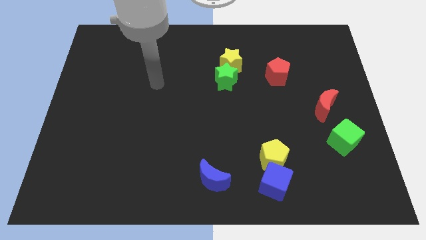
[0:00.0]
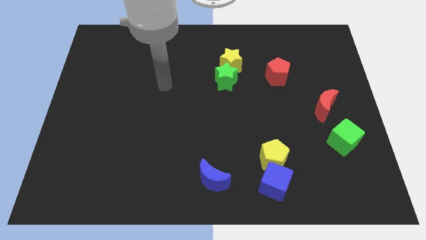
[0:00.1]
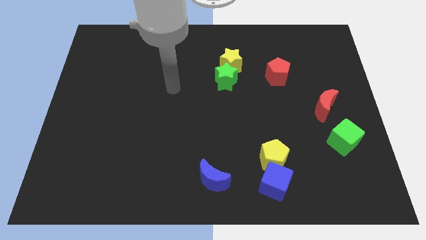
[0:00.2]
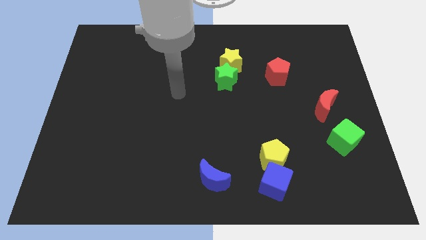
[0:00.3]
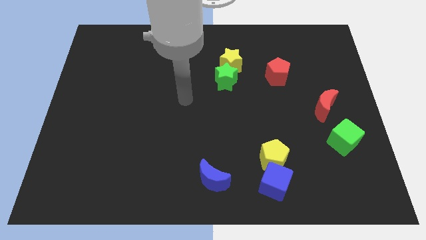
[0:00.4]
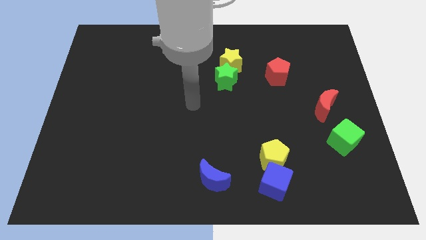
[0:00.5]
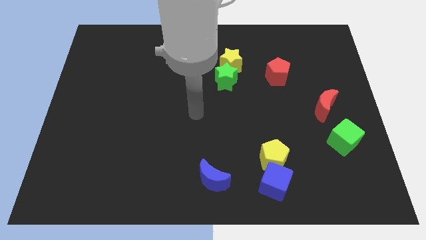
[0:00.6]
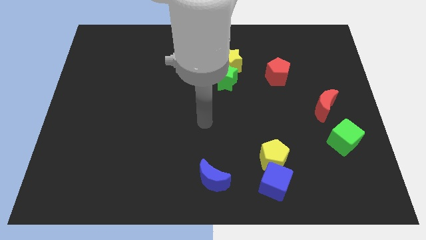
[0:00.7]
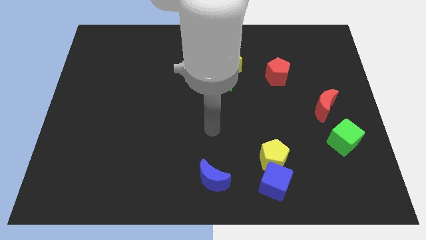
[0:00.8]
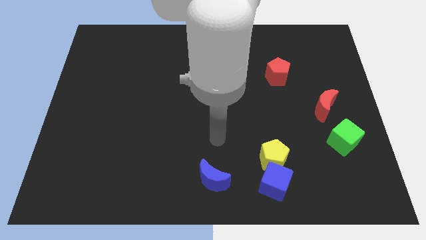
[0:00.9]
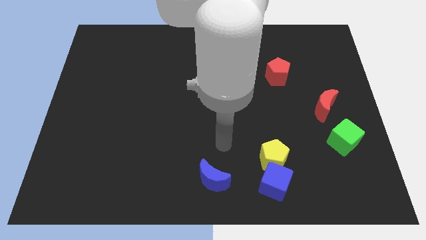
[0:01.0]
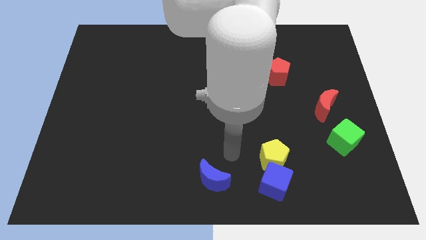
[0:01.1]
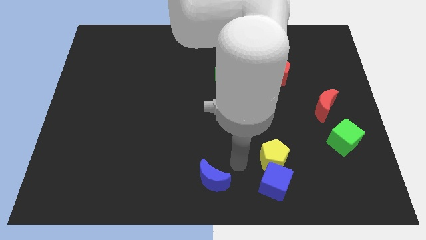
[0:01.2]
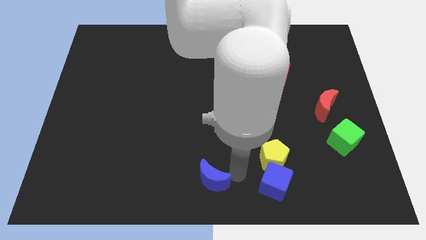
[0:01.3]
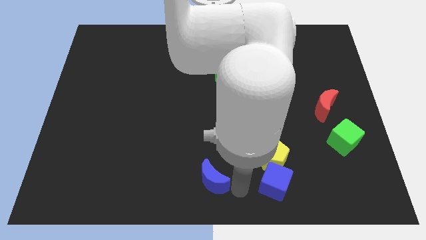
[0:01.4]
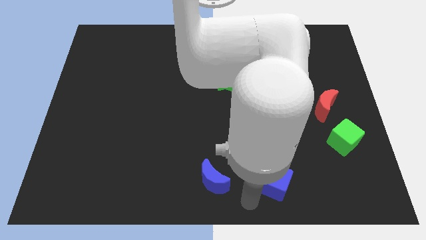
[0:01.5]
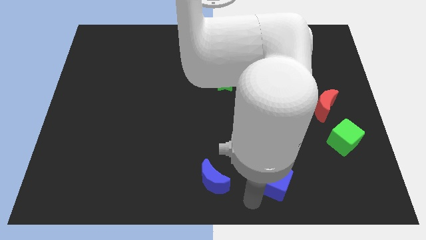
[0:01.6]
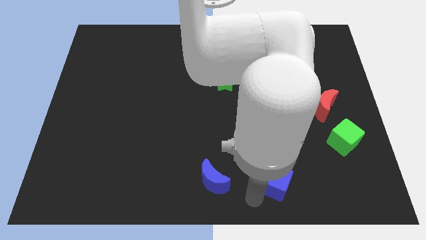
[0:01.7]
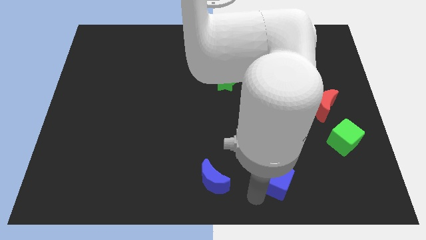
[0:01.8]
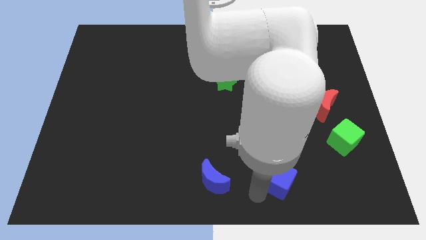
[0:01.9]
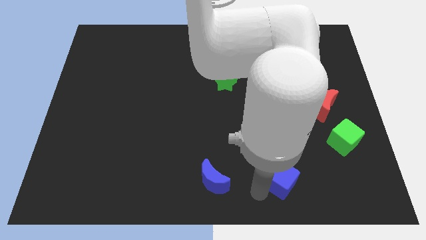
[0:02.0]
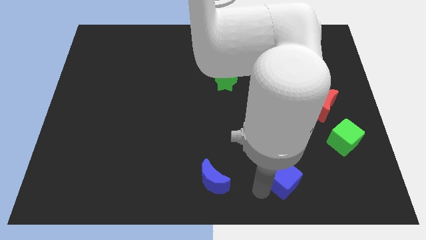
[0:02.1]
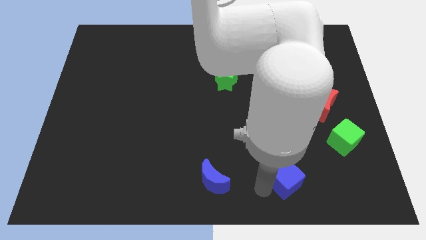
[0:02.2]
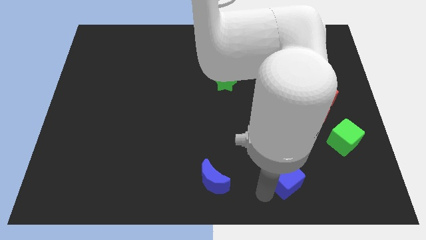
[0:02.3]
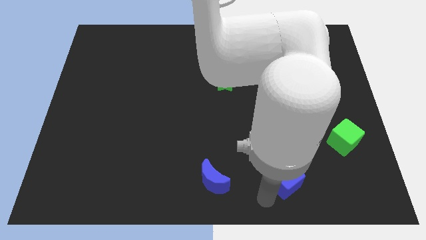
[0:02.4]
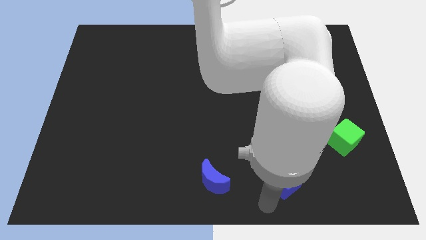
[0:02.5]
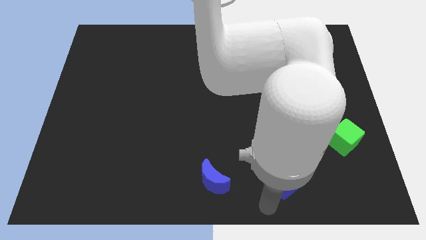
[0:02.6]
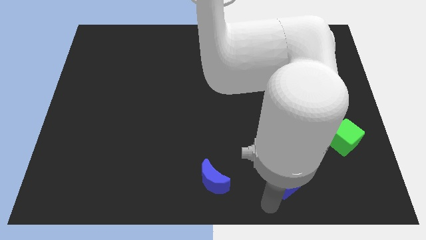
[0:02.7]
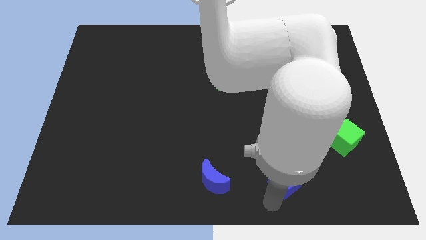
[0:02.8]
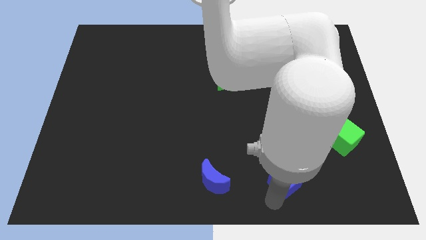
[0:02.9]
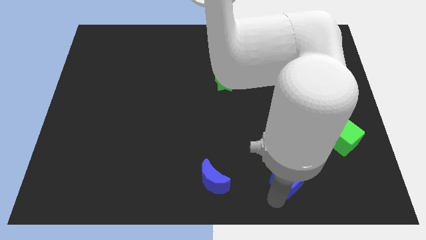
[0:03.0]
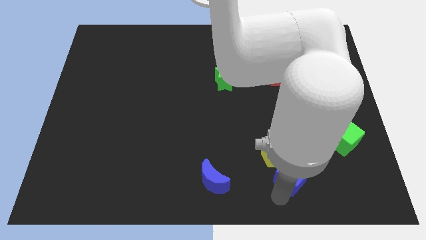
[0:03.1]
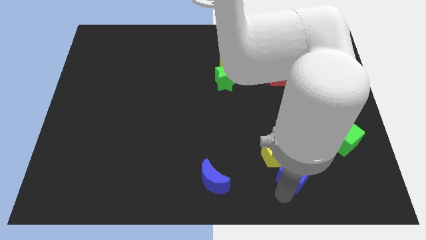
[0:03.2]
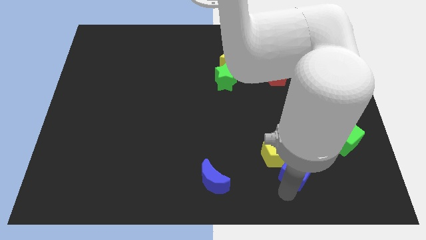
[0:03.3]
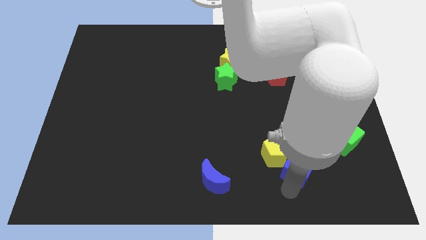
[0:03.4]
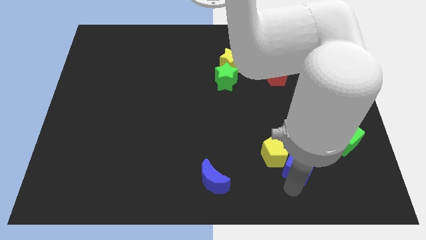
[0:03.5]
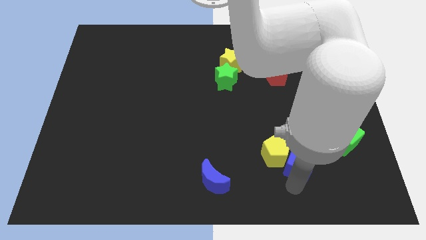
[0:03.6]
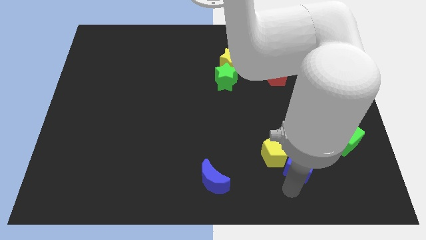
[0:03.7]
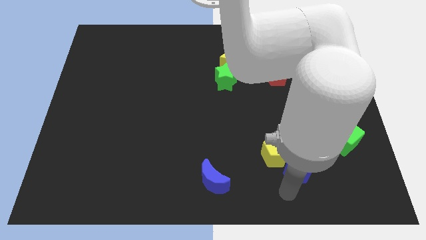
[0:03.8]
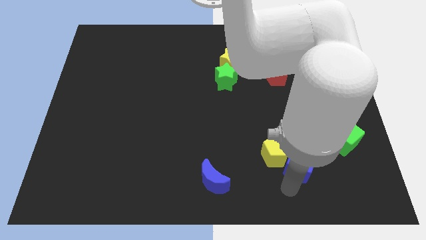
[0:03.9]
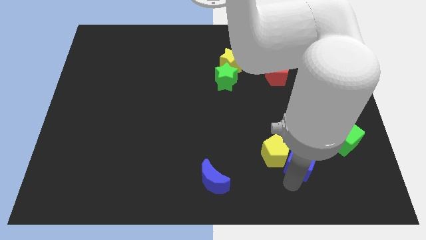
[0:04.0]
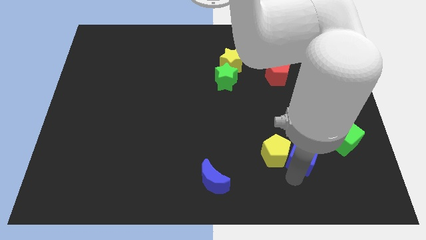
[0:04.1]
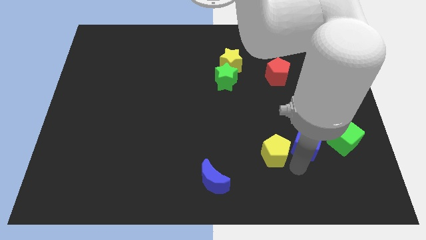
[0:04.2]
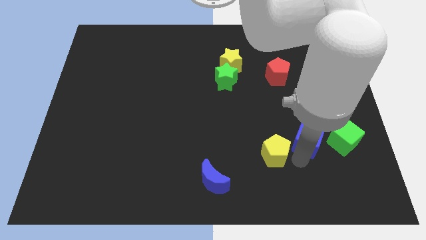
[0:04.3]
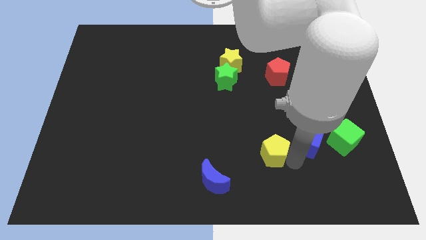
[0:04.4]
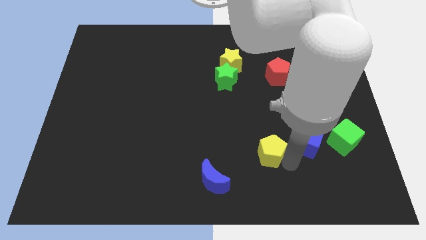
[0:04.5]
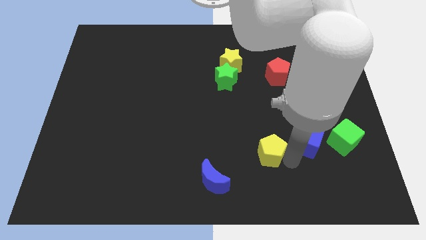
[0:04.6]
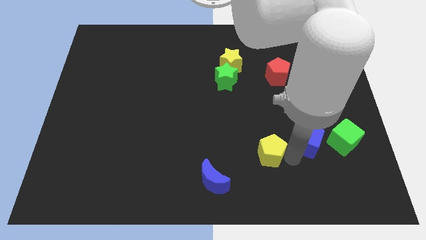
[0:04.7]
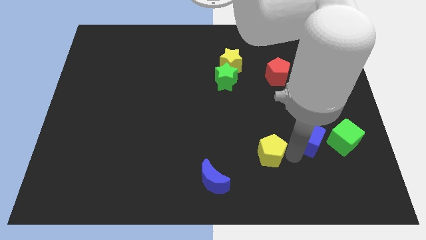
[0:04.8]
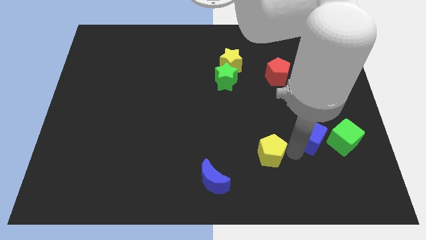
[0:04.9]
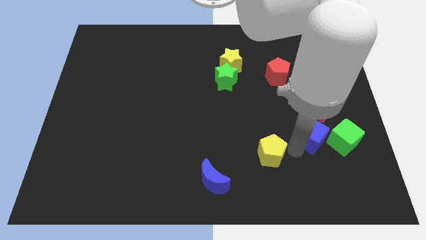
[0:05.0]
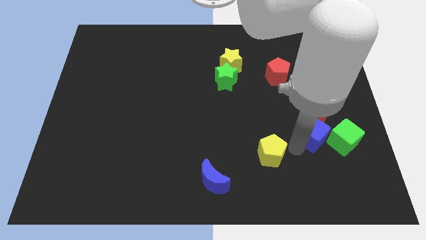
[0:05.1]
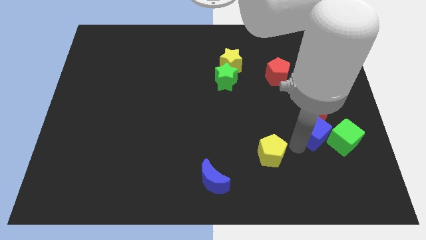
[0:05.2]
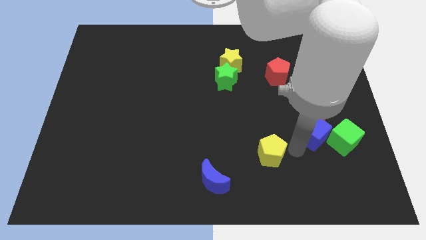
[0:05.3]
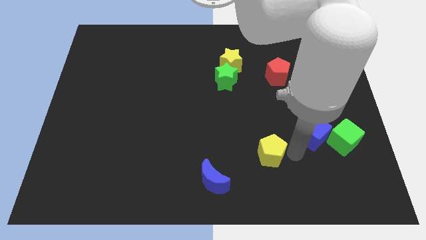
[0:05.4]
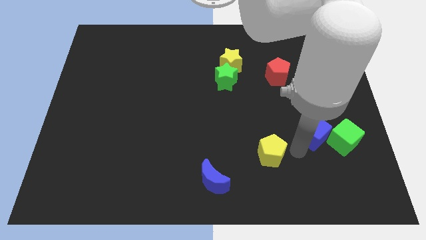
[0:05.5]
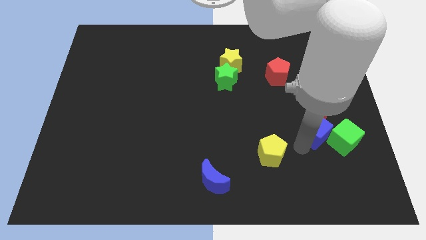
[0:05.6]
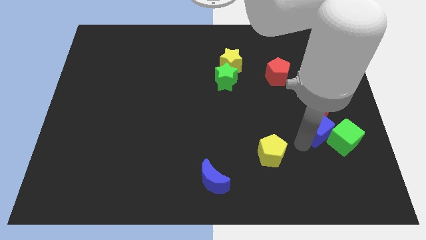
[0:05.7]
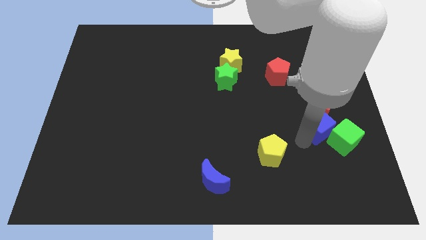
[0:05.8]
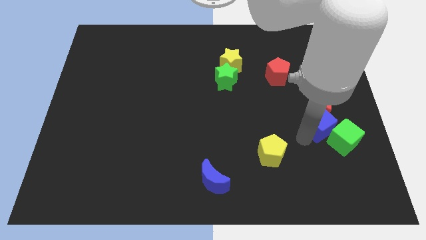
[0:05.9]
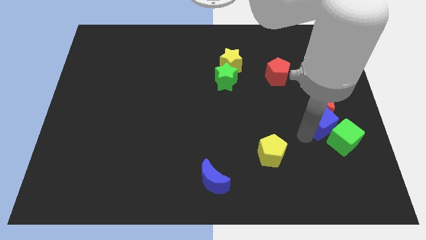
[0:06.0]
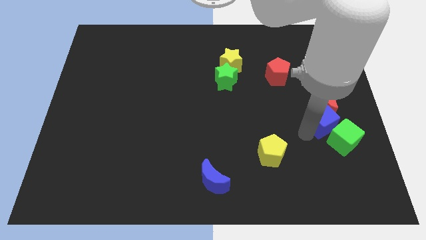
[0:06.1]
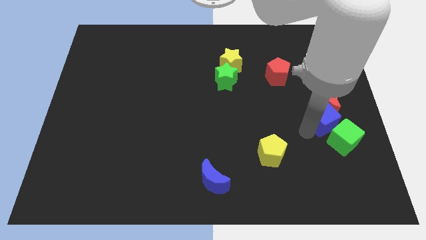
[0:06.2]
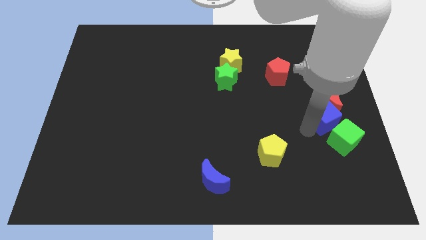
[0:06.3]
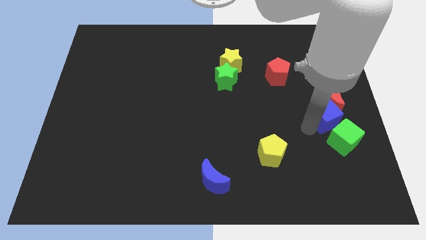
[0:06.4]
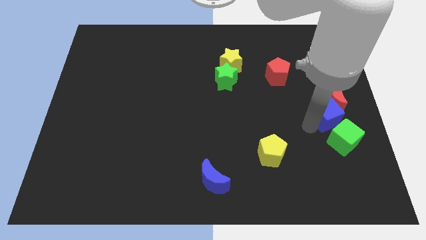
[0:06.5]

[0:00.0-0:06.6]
push the blue cube to the right side
